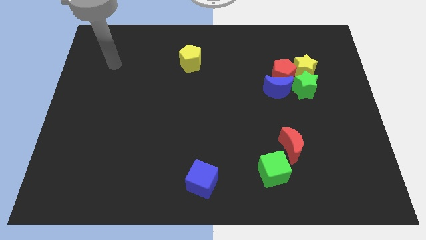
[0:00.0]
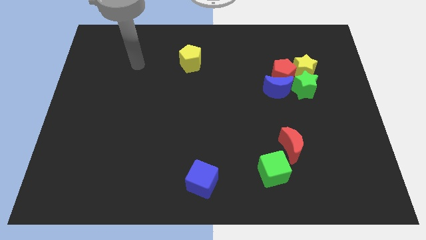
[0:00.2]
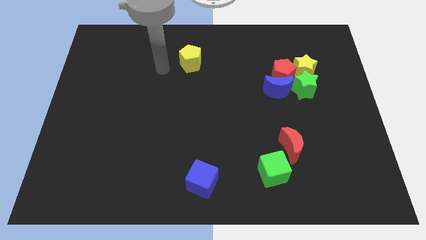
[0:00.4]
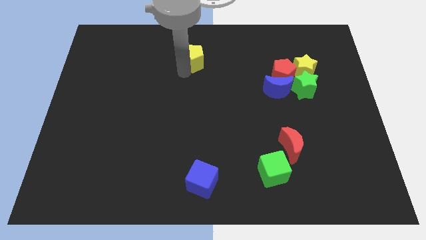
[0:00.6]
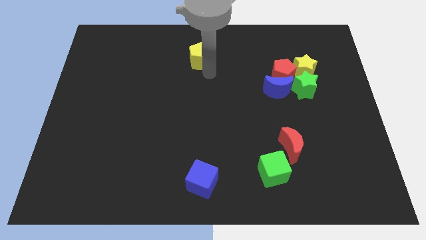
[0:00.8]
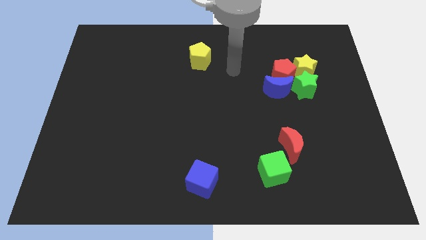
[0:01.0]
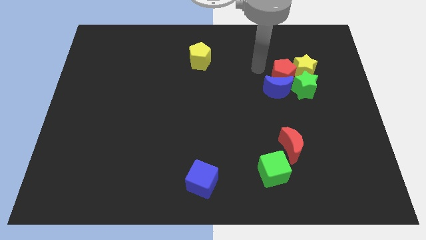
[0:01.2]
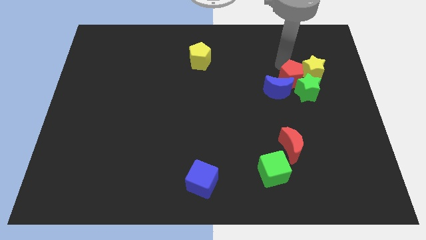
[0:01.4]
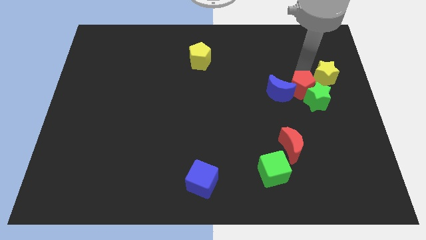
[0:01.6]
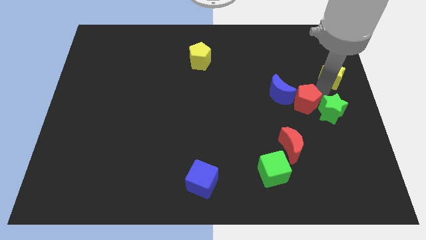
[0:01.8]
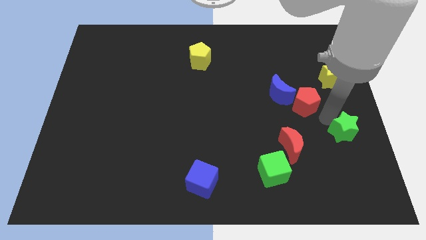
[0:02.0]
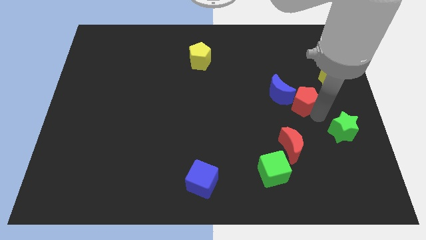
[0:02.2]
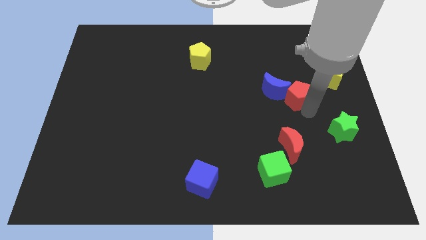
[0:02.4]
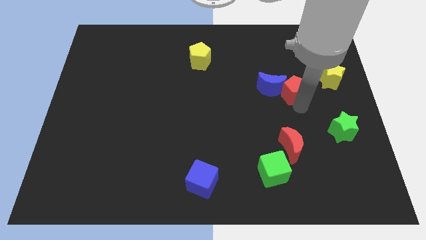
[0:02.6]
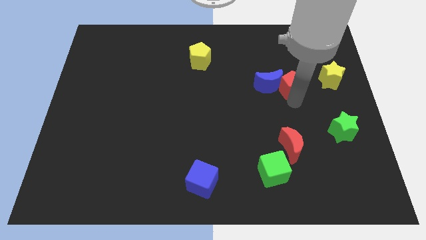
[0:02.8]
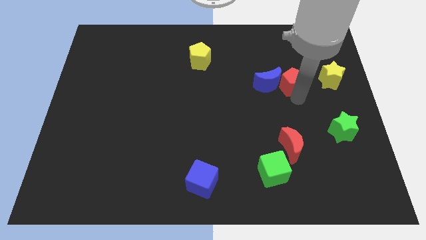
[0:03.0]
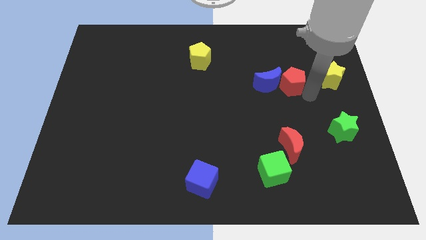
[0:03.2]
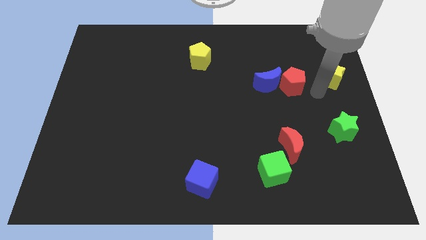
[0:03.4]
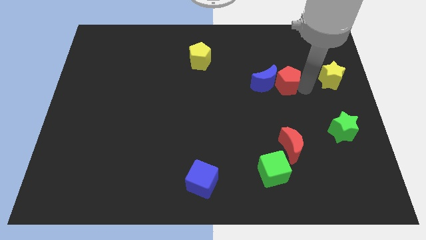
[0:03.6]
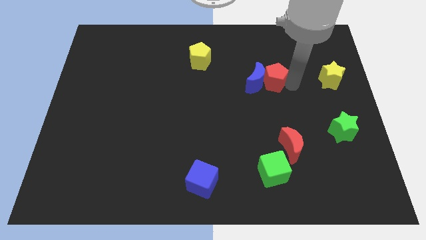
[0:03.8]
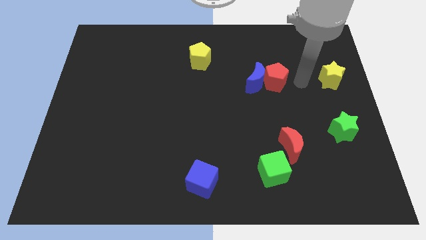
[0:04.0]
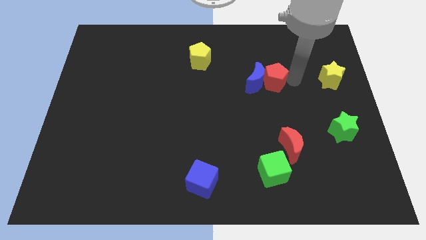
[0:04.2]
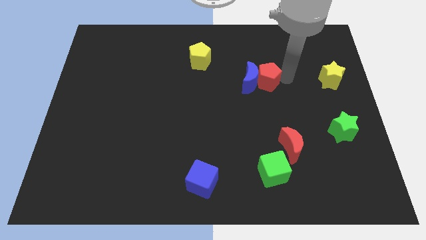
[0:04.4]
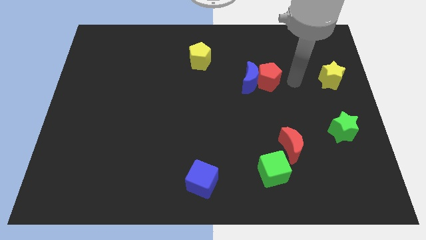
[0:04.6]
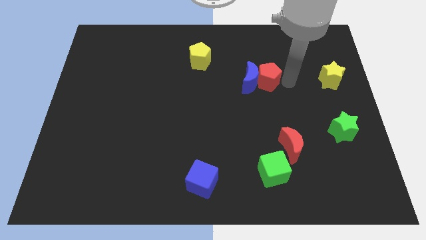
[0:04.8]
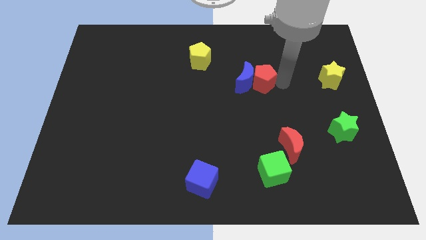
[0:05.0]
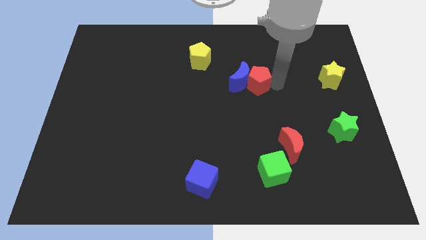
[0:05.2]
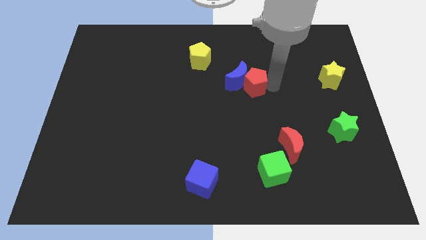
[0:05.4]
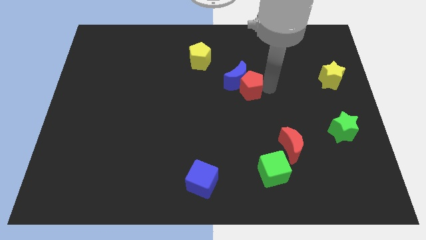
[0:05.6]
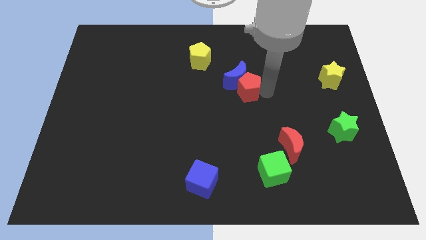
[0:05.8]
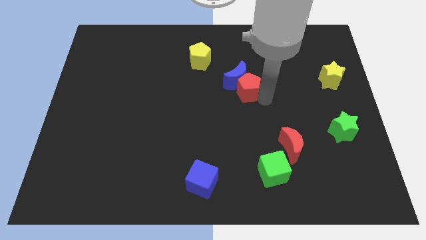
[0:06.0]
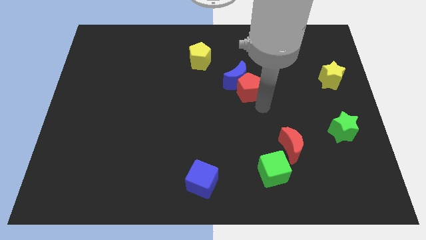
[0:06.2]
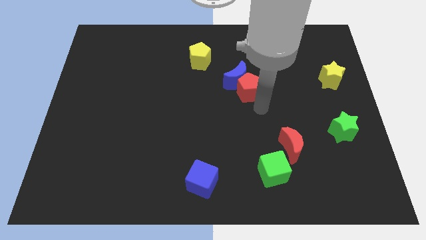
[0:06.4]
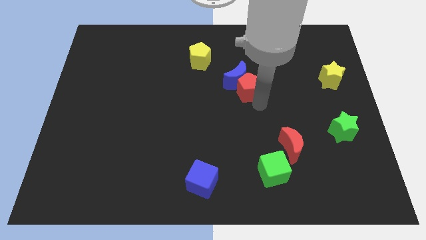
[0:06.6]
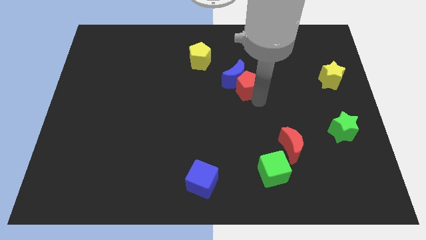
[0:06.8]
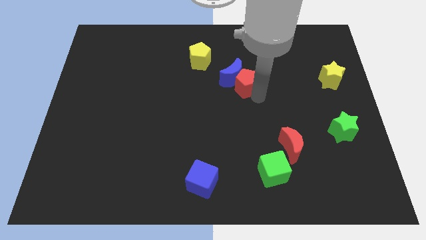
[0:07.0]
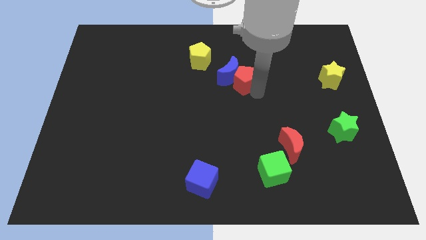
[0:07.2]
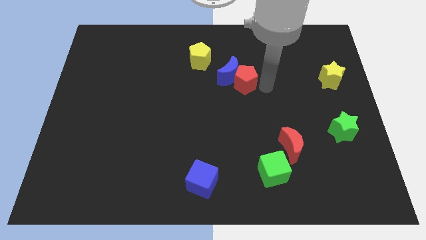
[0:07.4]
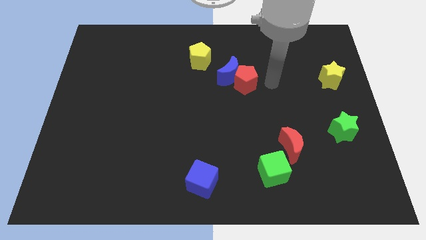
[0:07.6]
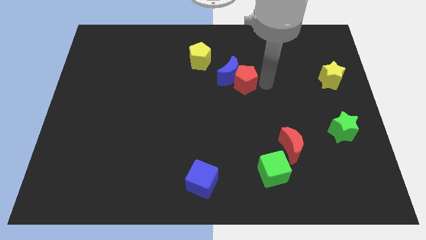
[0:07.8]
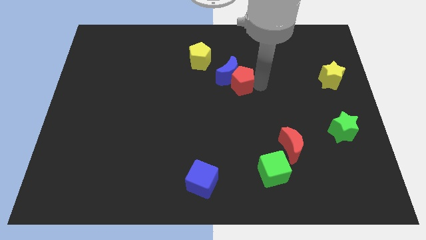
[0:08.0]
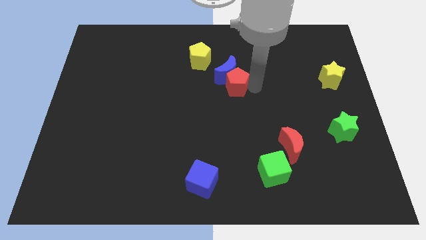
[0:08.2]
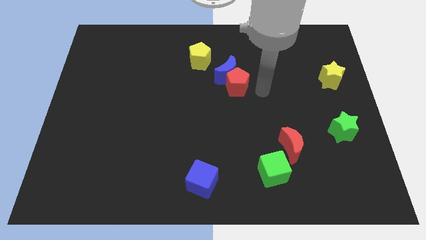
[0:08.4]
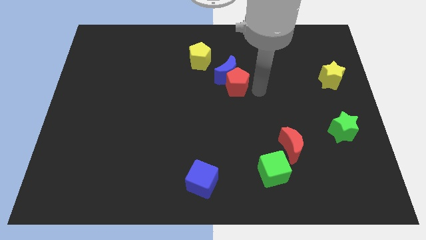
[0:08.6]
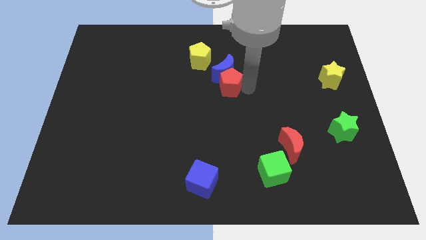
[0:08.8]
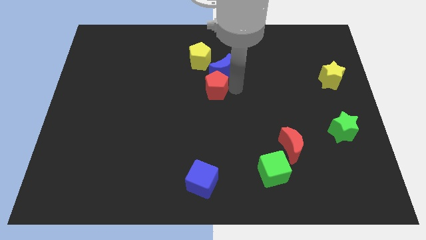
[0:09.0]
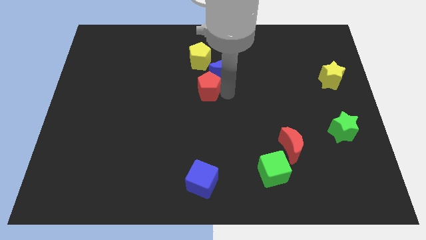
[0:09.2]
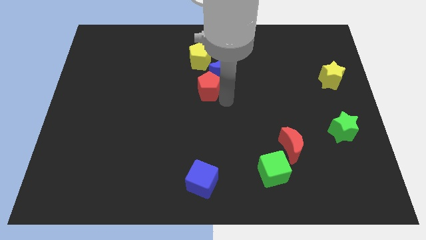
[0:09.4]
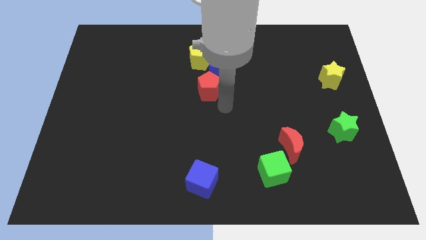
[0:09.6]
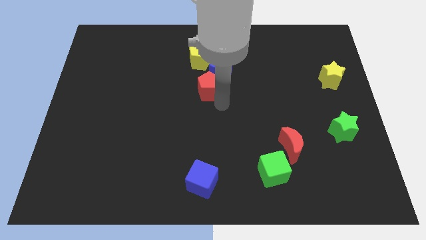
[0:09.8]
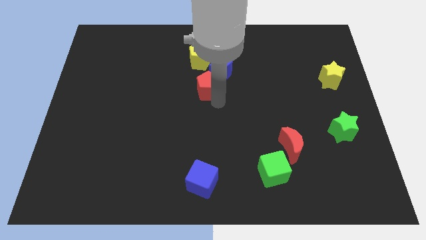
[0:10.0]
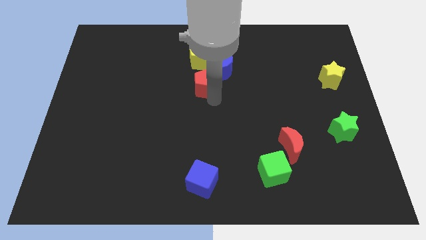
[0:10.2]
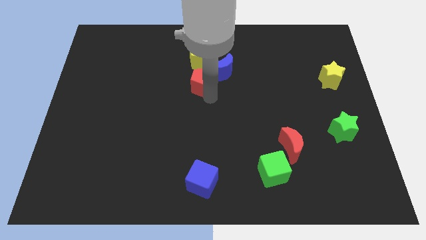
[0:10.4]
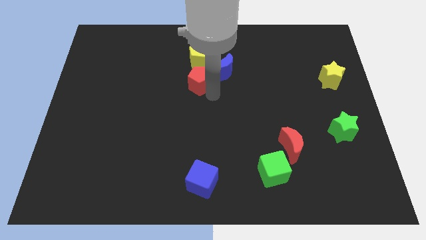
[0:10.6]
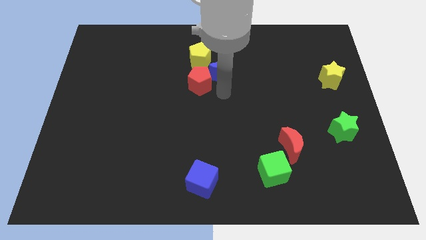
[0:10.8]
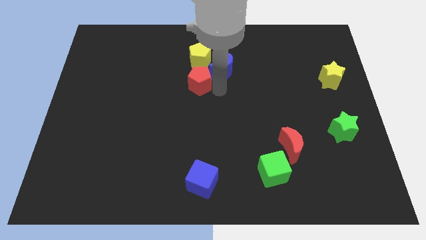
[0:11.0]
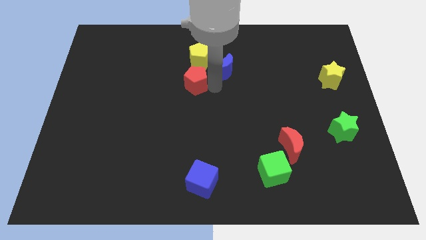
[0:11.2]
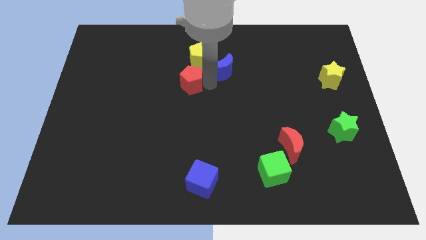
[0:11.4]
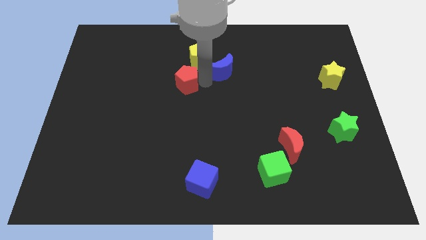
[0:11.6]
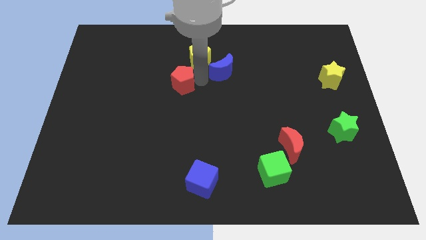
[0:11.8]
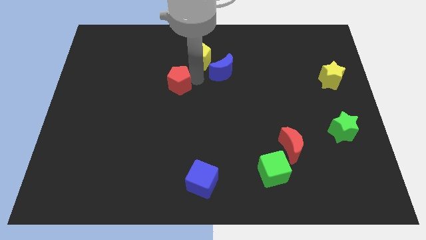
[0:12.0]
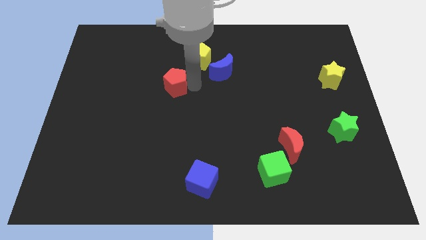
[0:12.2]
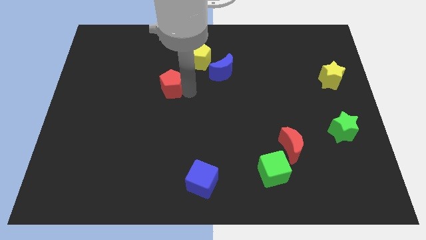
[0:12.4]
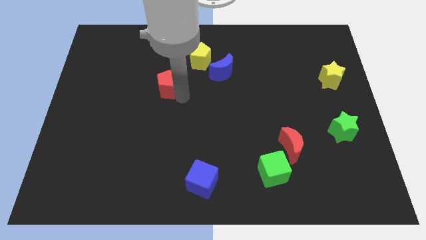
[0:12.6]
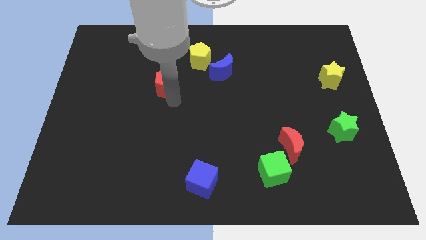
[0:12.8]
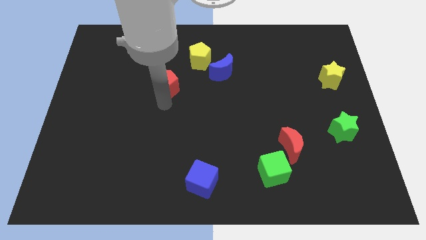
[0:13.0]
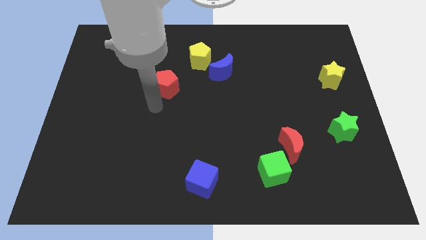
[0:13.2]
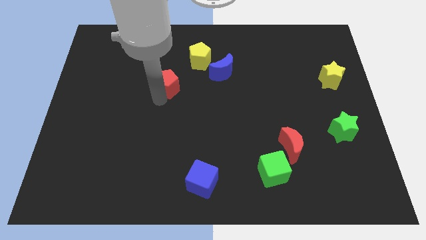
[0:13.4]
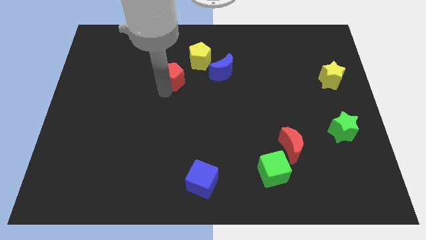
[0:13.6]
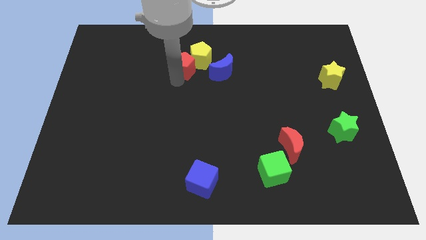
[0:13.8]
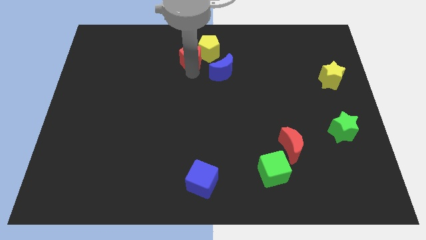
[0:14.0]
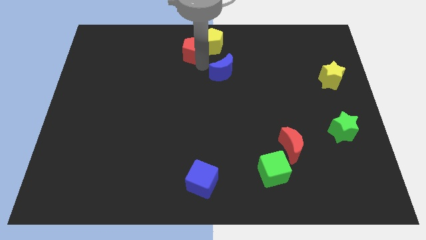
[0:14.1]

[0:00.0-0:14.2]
push the red pentagon to the towards your base

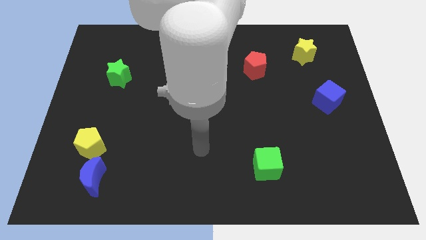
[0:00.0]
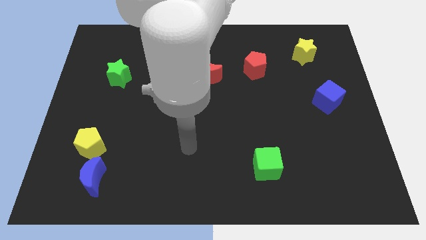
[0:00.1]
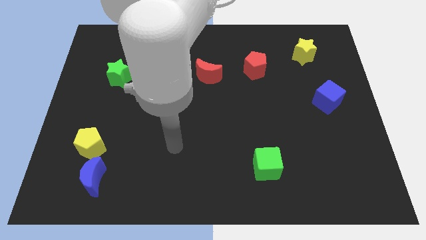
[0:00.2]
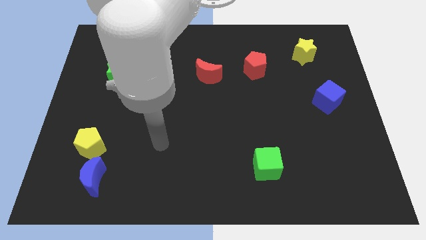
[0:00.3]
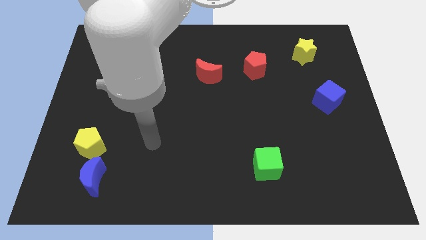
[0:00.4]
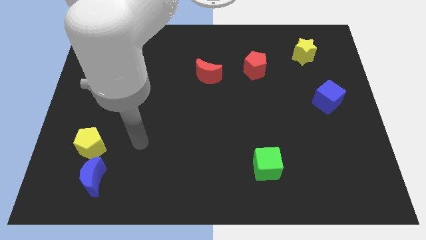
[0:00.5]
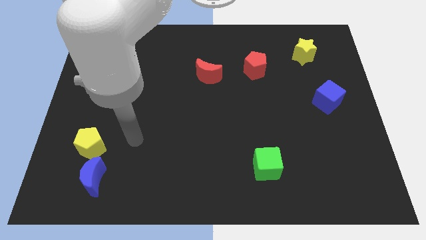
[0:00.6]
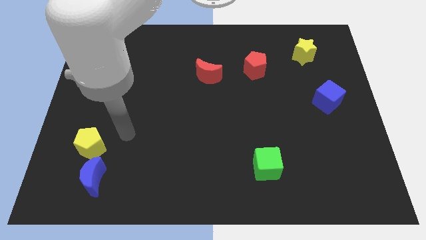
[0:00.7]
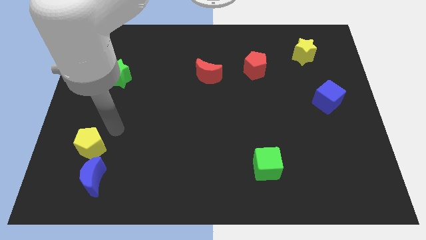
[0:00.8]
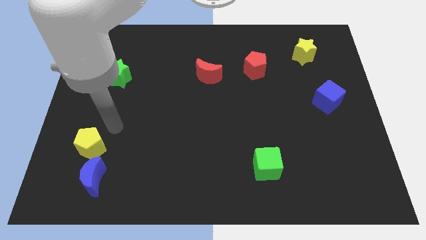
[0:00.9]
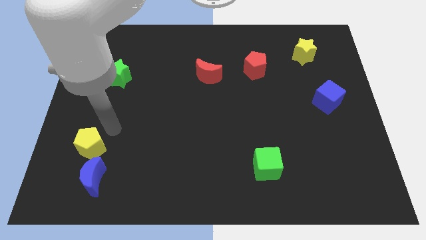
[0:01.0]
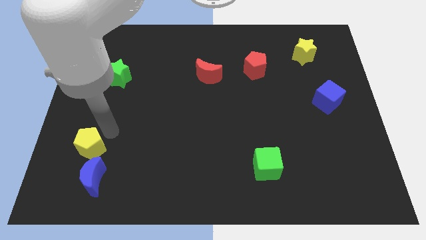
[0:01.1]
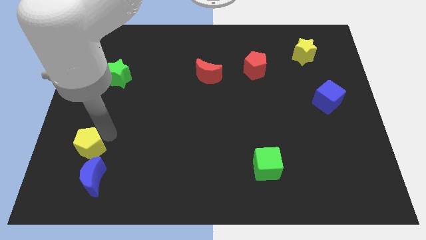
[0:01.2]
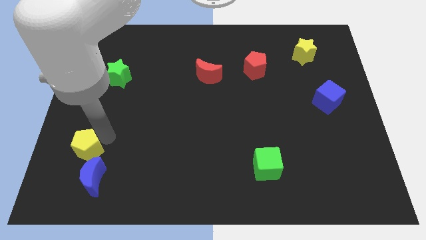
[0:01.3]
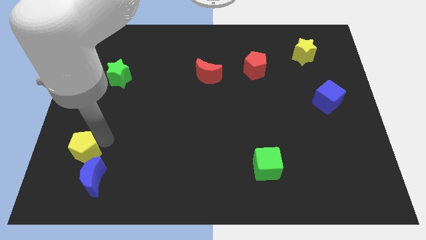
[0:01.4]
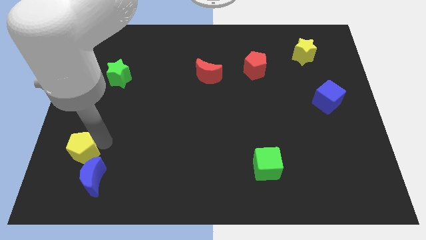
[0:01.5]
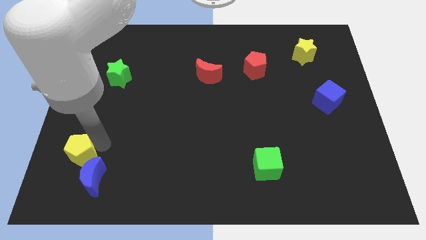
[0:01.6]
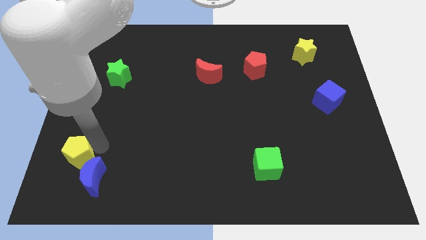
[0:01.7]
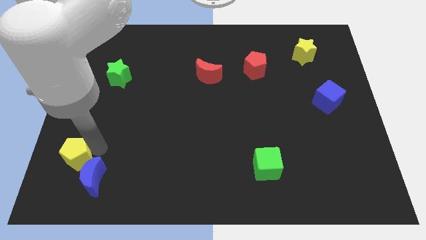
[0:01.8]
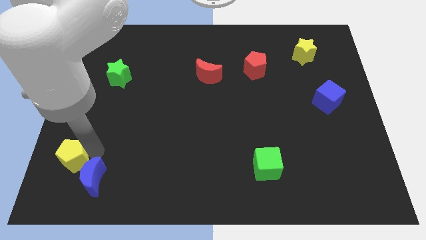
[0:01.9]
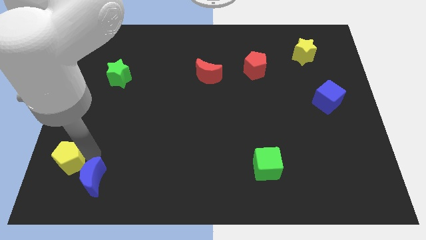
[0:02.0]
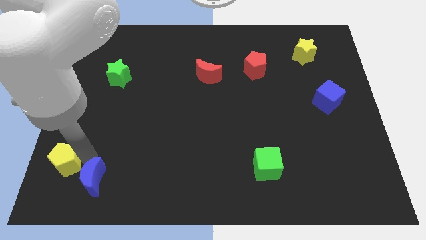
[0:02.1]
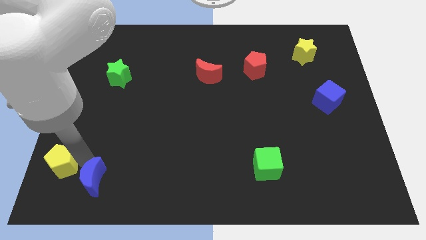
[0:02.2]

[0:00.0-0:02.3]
push the yellow pentagon to the lower left corner
